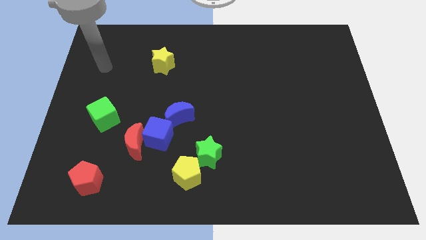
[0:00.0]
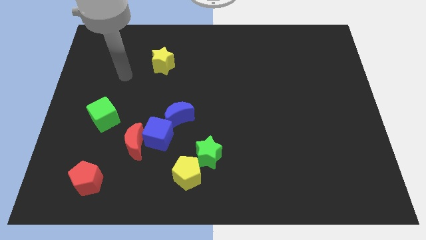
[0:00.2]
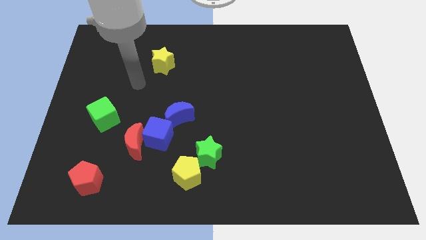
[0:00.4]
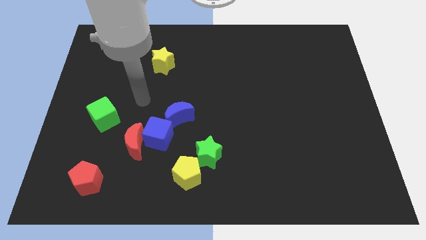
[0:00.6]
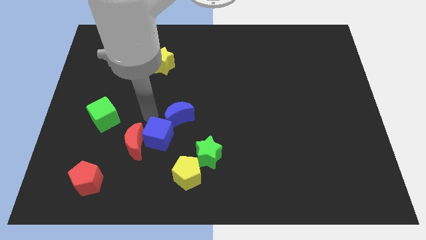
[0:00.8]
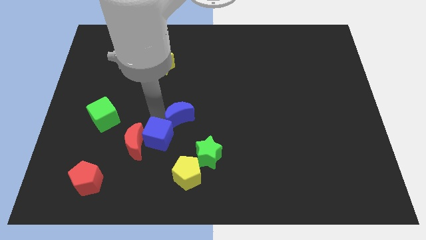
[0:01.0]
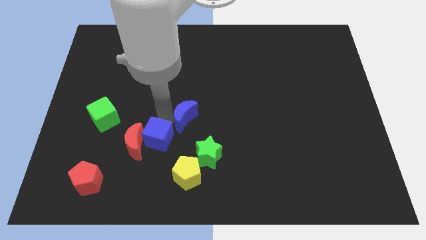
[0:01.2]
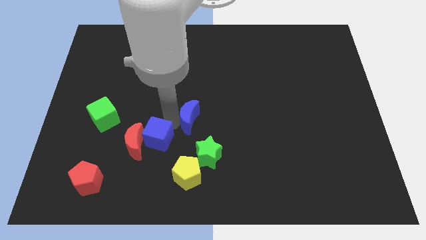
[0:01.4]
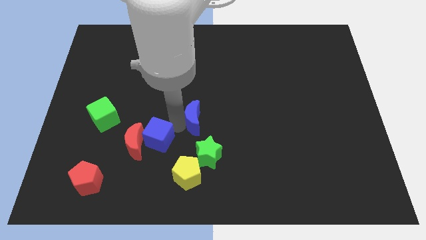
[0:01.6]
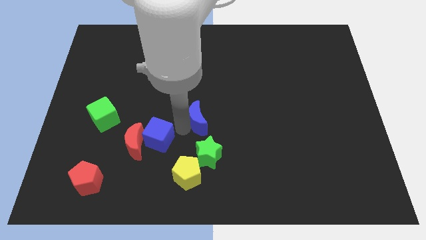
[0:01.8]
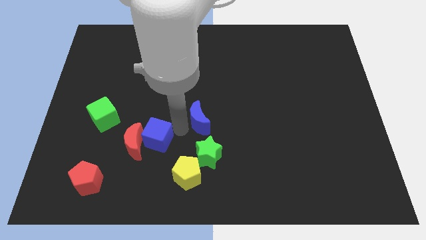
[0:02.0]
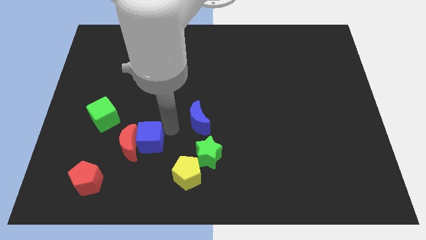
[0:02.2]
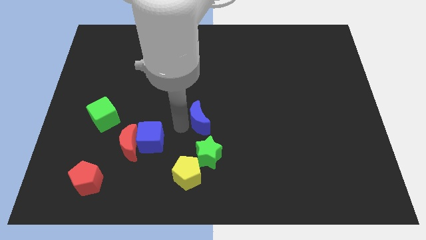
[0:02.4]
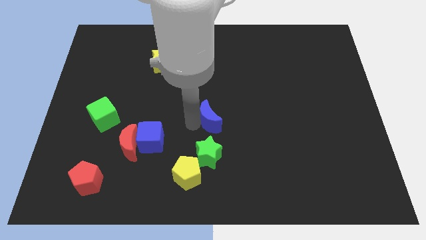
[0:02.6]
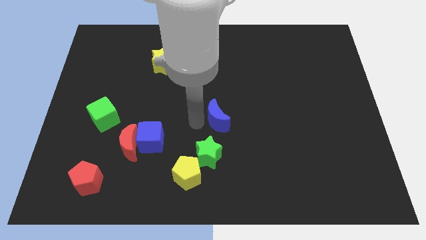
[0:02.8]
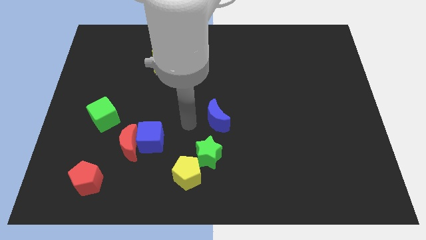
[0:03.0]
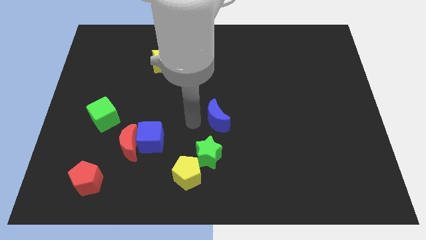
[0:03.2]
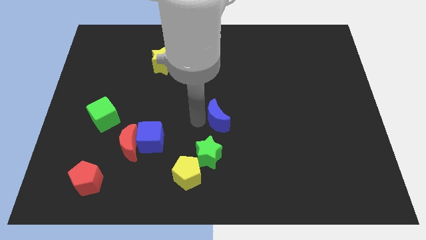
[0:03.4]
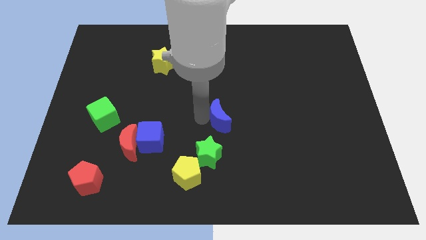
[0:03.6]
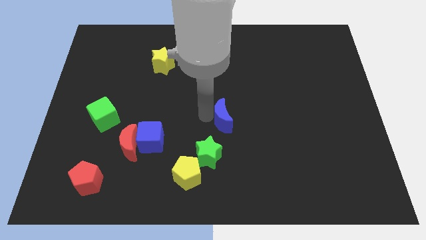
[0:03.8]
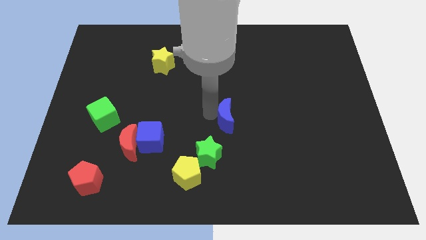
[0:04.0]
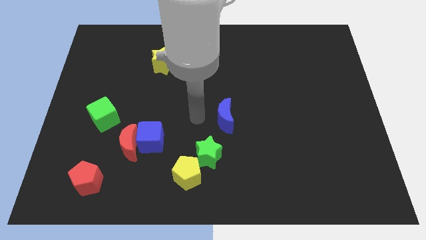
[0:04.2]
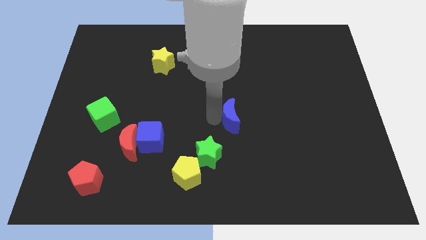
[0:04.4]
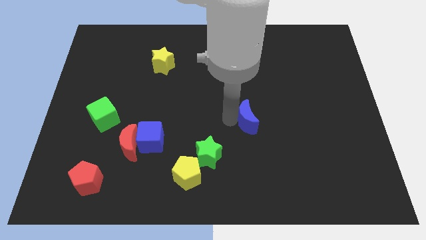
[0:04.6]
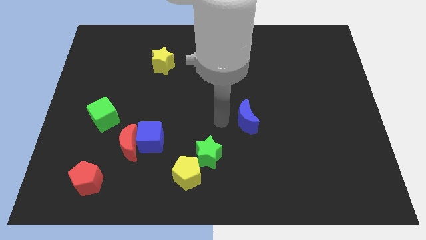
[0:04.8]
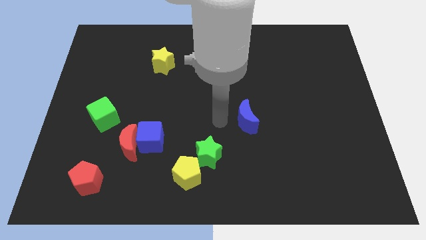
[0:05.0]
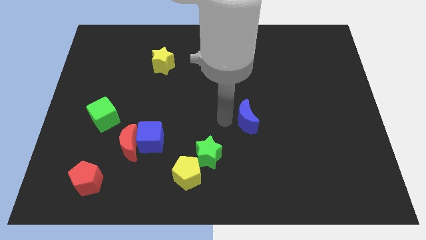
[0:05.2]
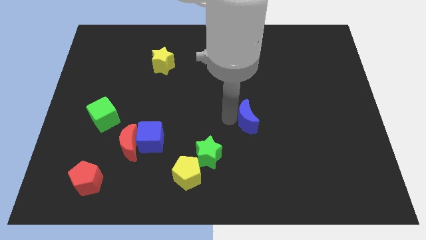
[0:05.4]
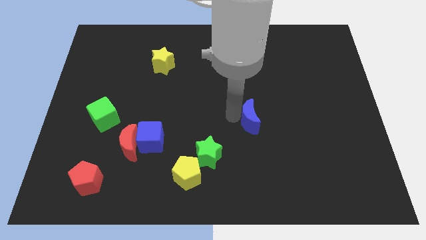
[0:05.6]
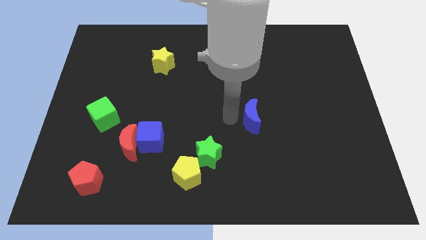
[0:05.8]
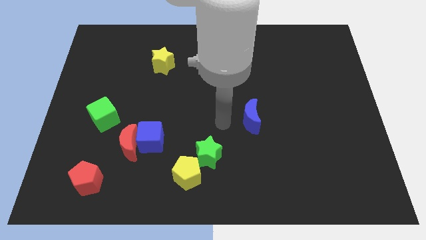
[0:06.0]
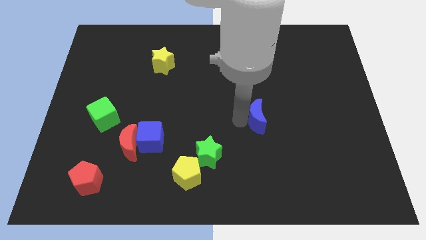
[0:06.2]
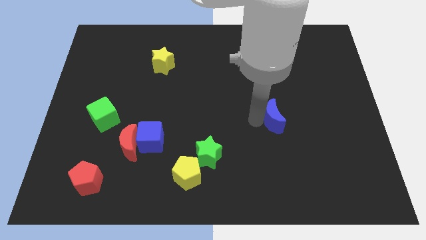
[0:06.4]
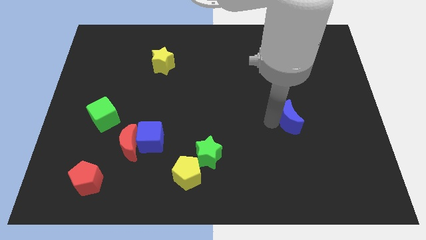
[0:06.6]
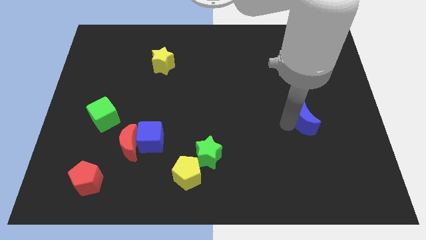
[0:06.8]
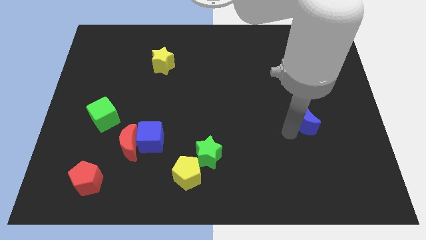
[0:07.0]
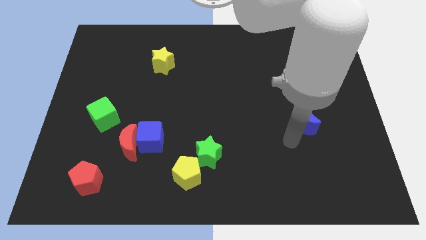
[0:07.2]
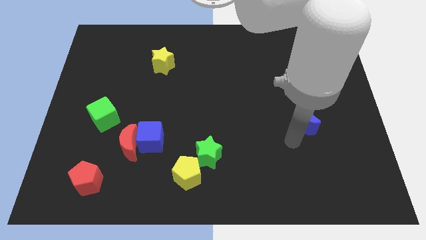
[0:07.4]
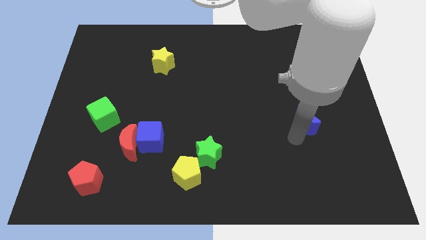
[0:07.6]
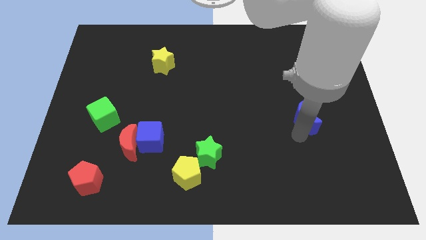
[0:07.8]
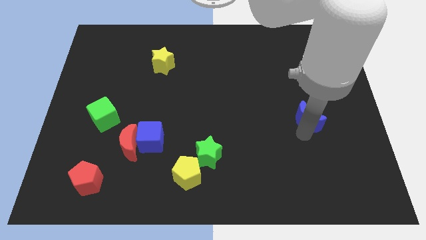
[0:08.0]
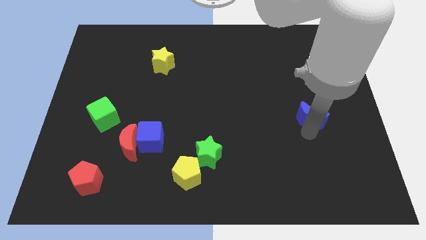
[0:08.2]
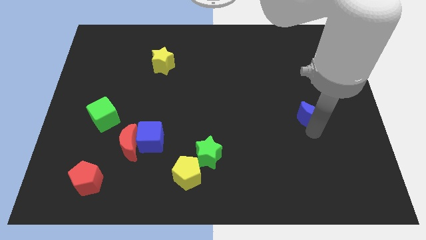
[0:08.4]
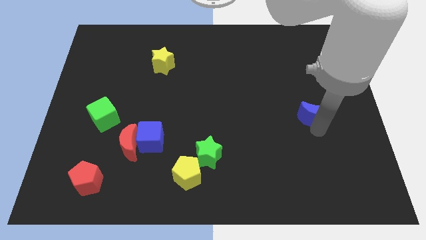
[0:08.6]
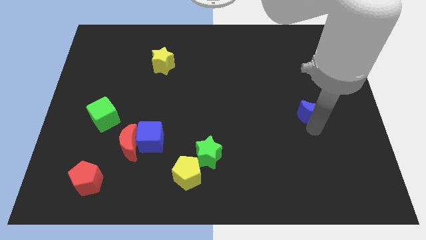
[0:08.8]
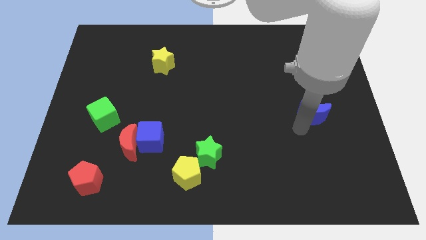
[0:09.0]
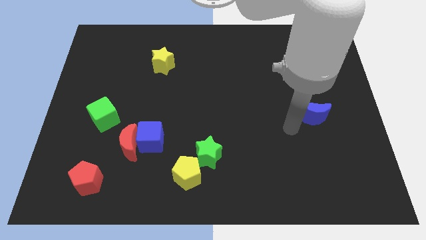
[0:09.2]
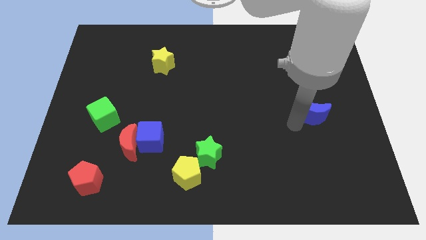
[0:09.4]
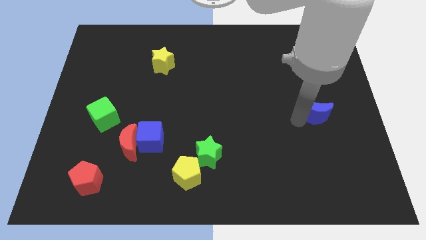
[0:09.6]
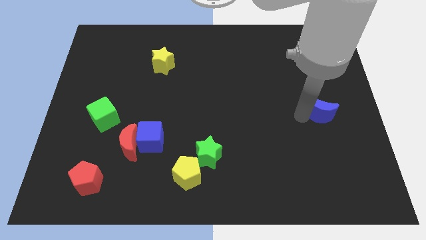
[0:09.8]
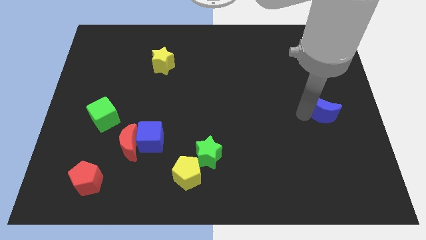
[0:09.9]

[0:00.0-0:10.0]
push the blue moon to the center right

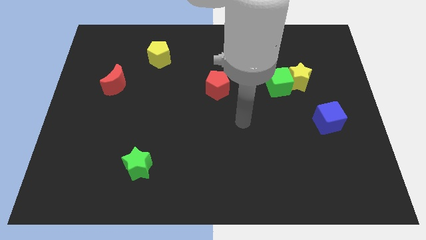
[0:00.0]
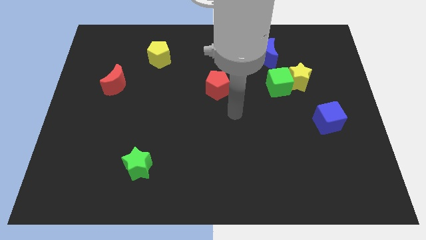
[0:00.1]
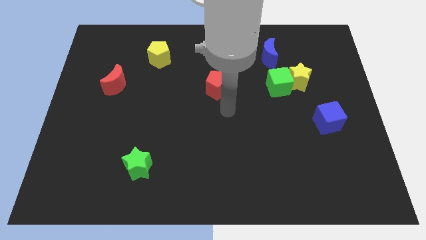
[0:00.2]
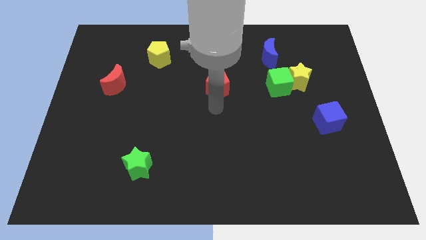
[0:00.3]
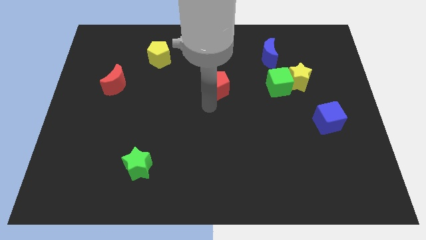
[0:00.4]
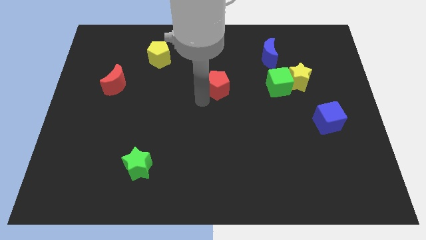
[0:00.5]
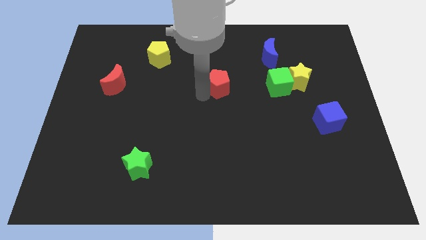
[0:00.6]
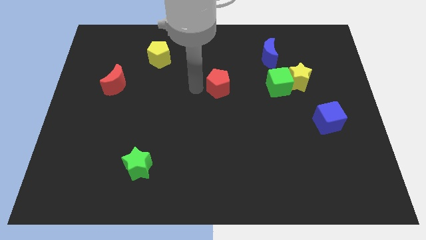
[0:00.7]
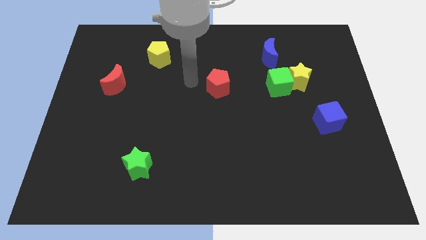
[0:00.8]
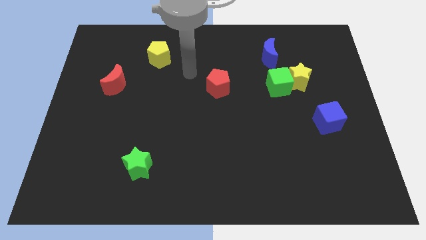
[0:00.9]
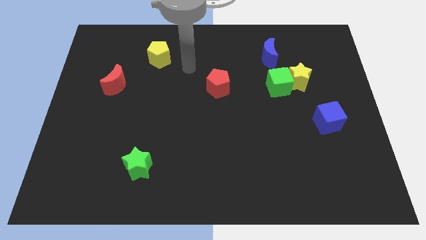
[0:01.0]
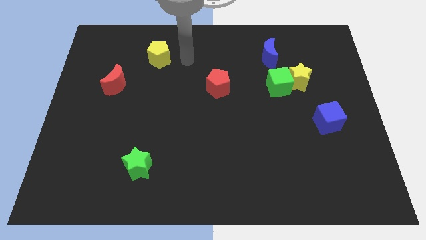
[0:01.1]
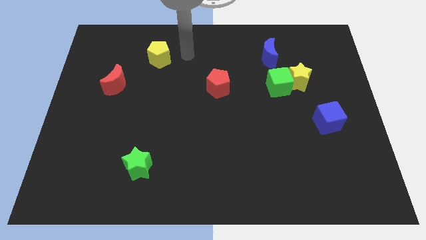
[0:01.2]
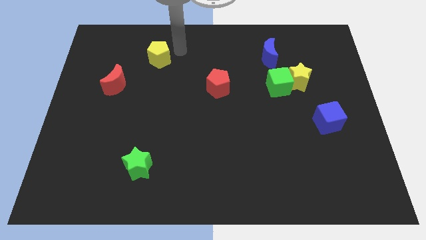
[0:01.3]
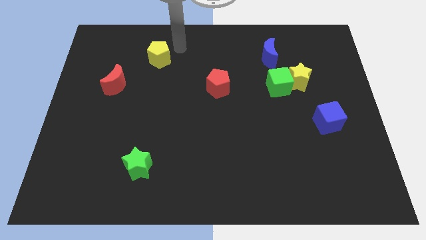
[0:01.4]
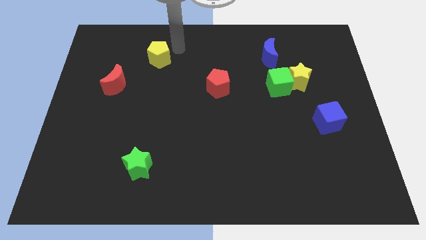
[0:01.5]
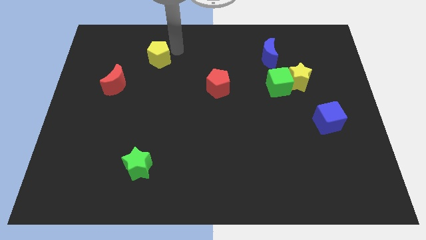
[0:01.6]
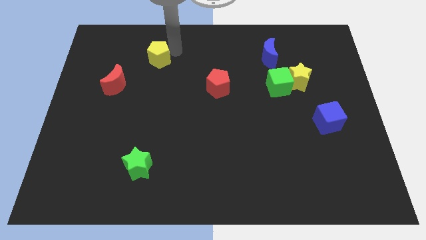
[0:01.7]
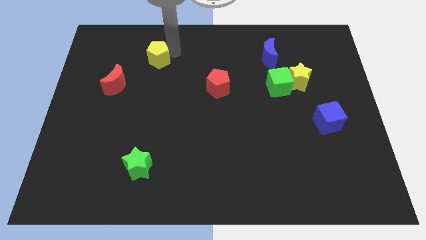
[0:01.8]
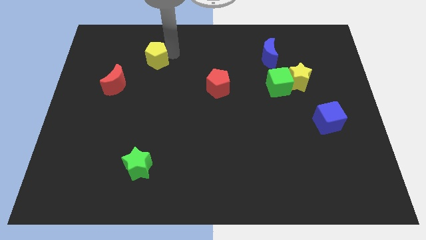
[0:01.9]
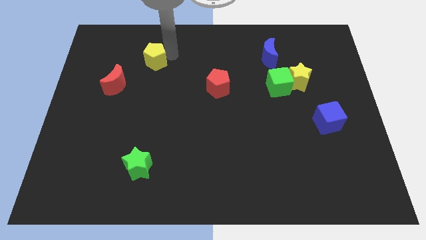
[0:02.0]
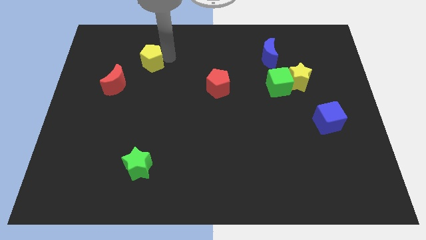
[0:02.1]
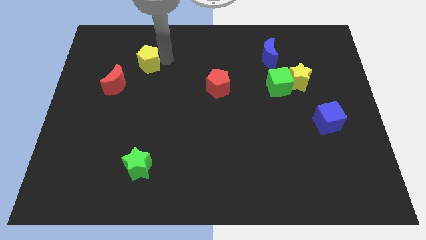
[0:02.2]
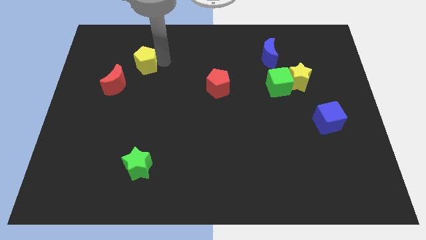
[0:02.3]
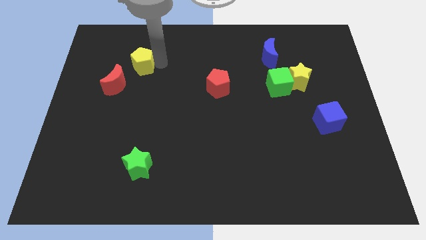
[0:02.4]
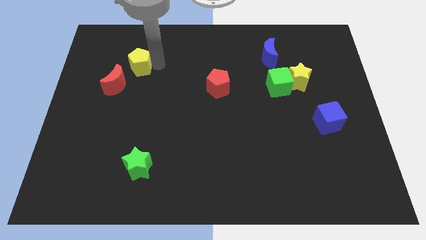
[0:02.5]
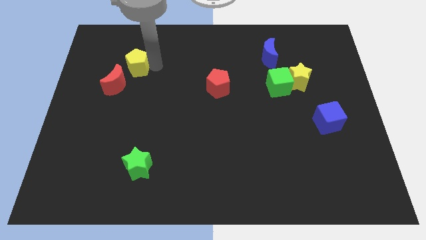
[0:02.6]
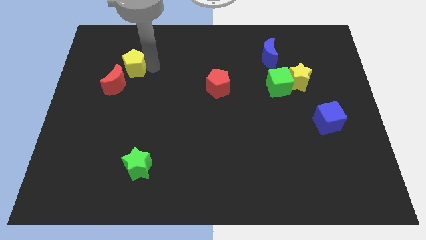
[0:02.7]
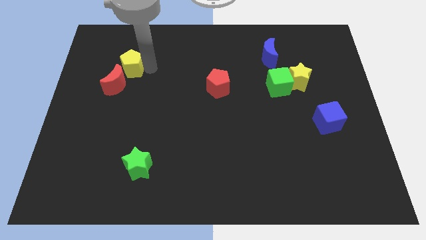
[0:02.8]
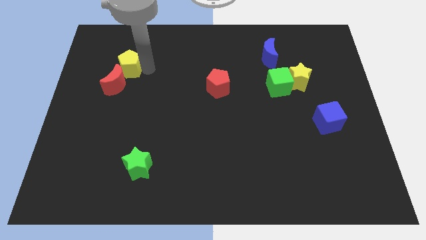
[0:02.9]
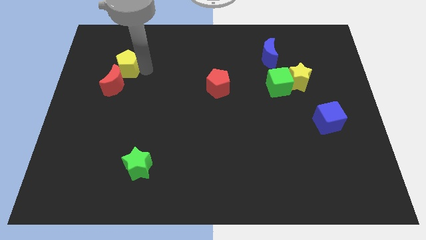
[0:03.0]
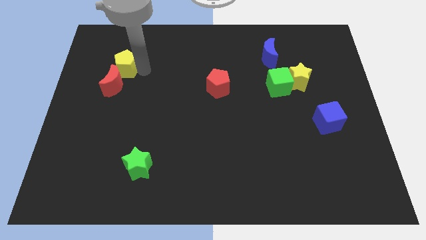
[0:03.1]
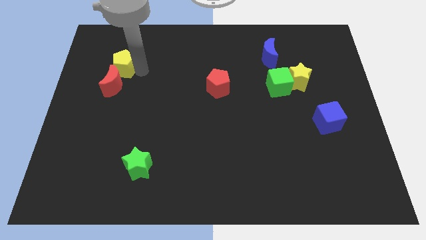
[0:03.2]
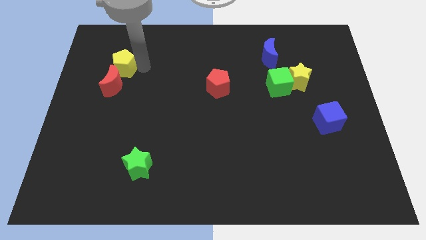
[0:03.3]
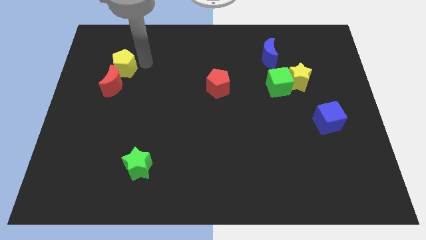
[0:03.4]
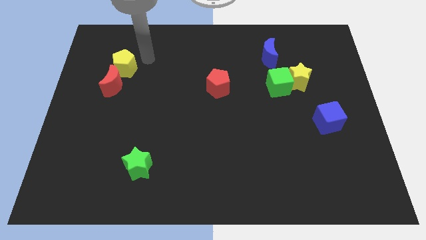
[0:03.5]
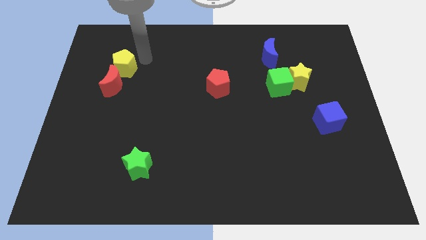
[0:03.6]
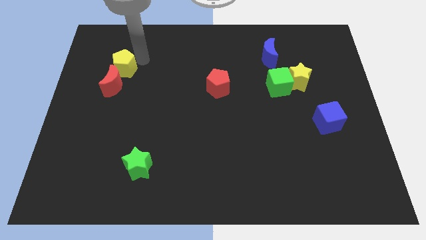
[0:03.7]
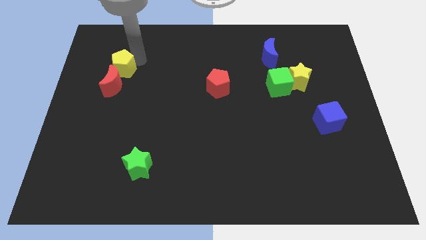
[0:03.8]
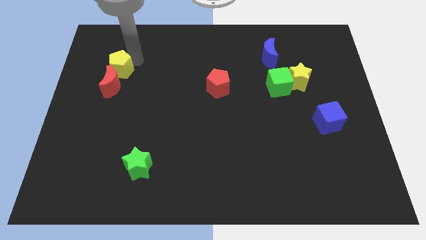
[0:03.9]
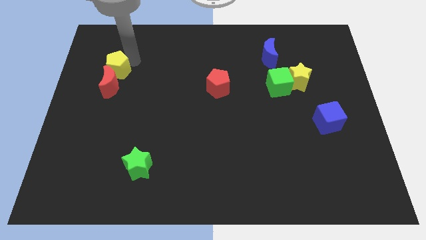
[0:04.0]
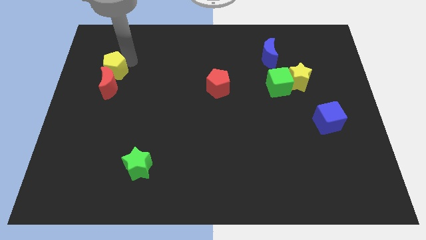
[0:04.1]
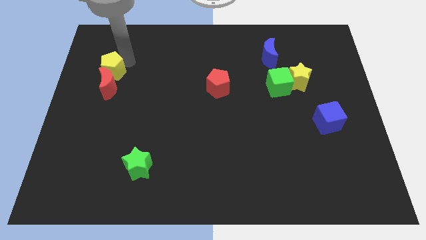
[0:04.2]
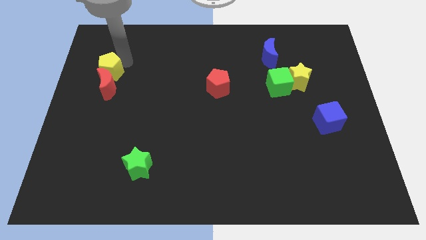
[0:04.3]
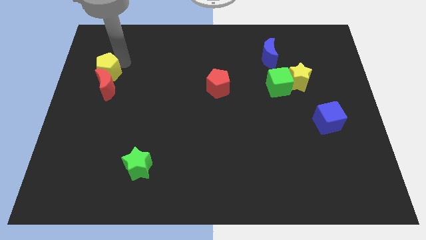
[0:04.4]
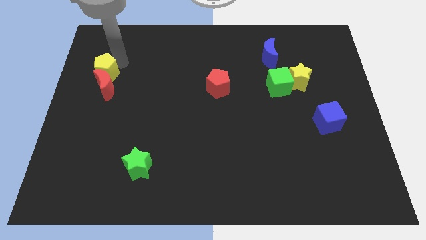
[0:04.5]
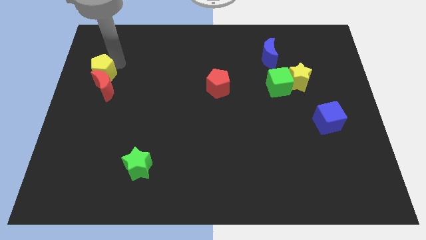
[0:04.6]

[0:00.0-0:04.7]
push the yellow pentagon to the left side of the board
